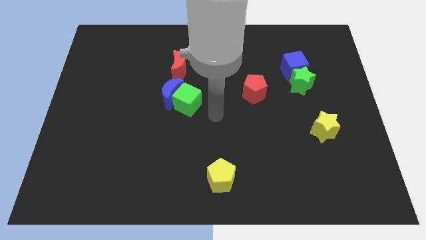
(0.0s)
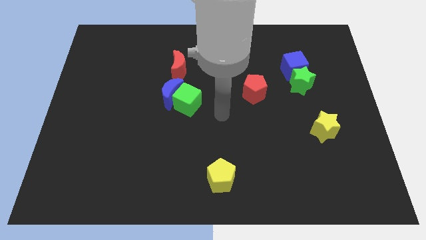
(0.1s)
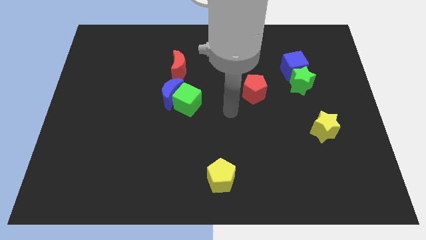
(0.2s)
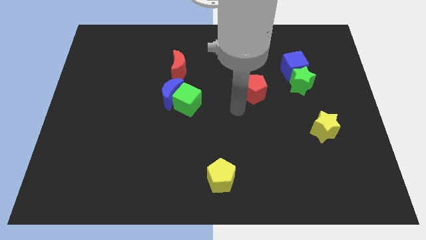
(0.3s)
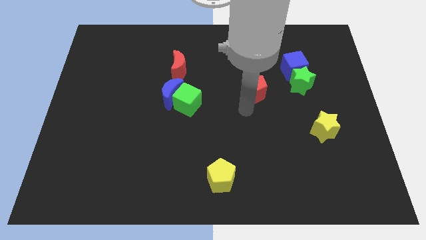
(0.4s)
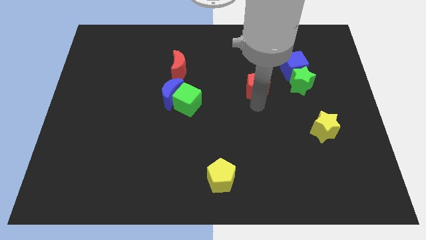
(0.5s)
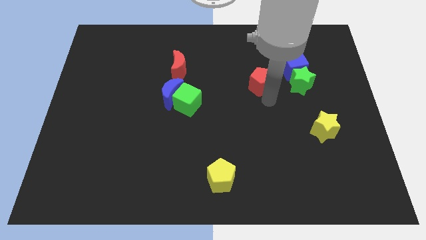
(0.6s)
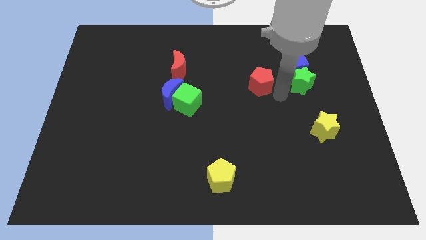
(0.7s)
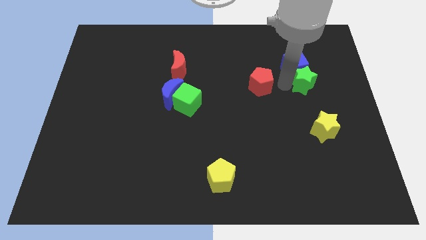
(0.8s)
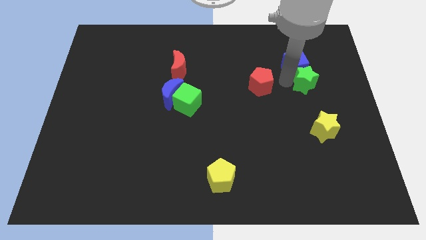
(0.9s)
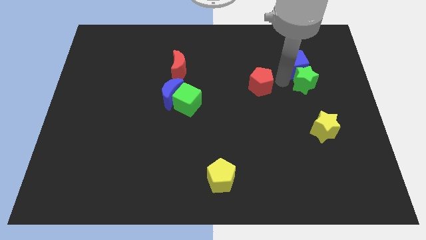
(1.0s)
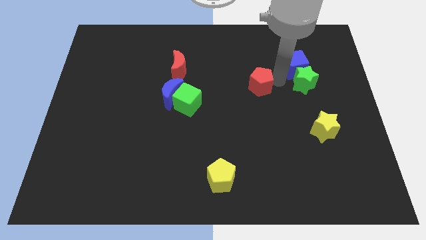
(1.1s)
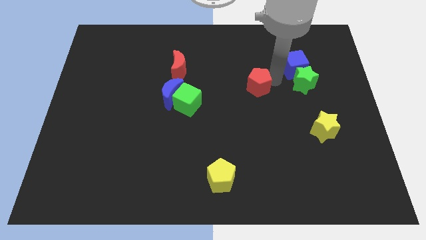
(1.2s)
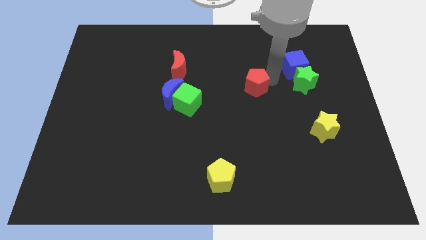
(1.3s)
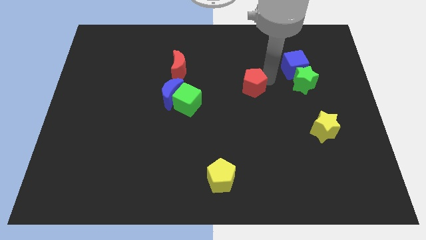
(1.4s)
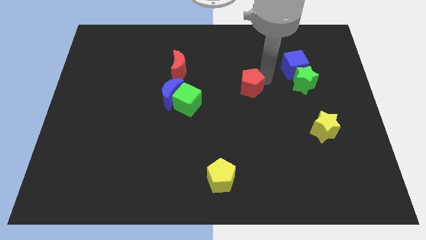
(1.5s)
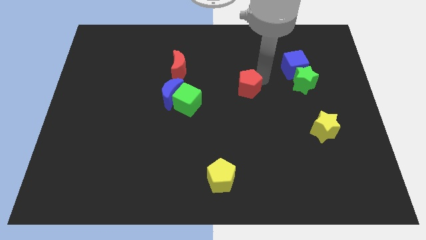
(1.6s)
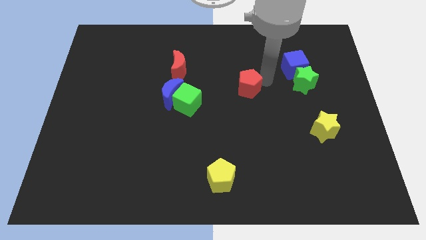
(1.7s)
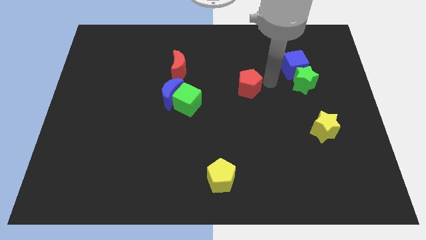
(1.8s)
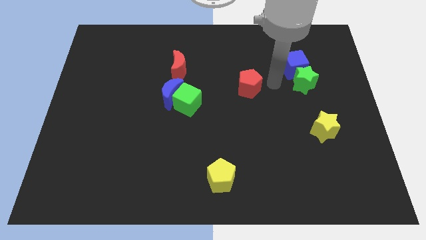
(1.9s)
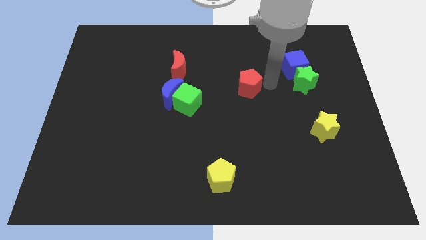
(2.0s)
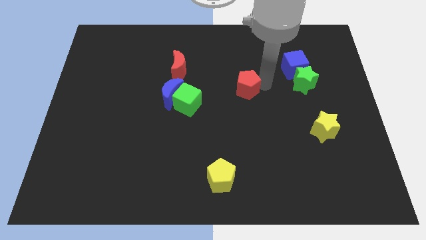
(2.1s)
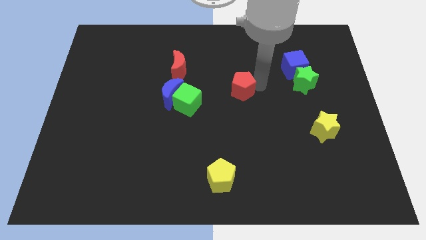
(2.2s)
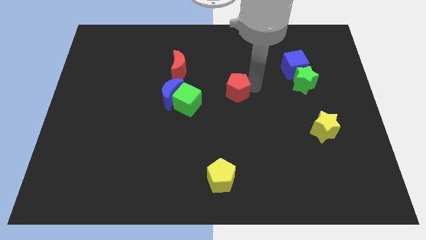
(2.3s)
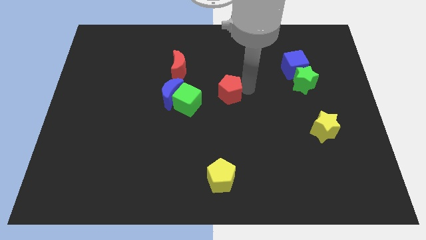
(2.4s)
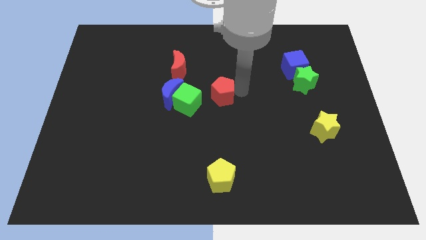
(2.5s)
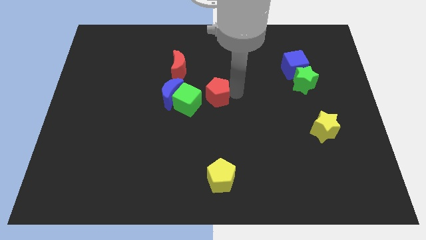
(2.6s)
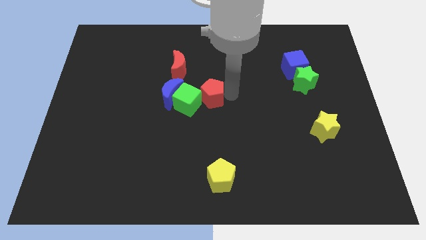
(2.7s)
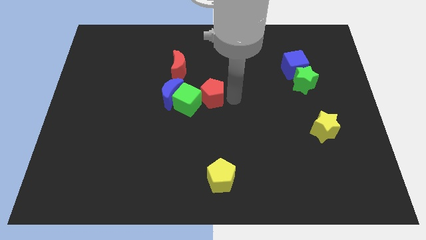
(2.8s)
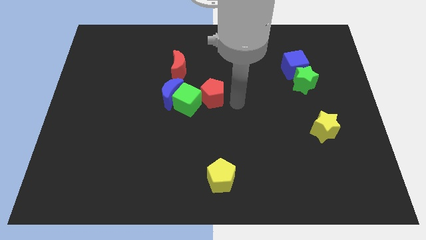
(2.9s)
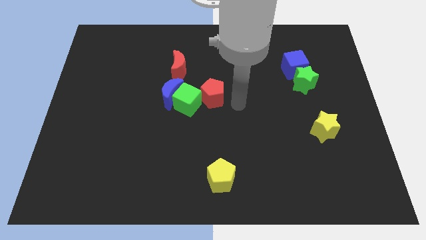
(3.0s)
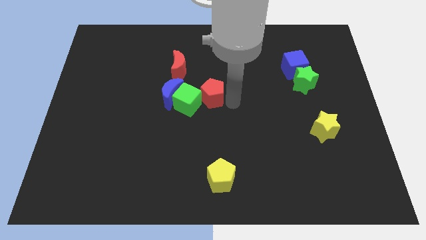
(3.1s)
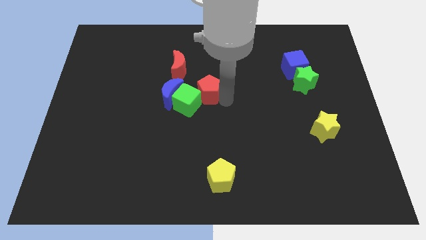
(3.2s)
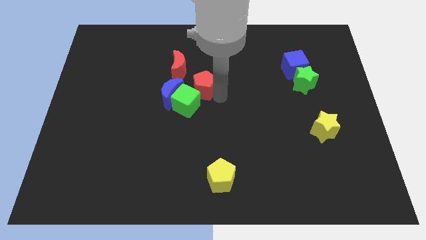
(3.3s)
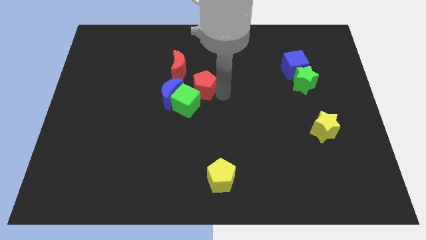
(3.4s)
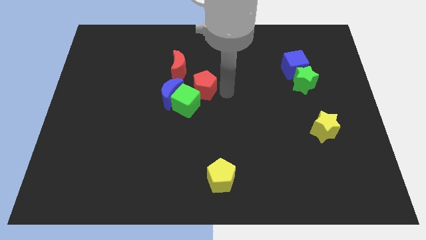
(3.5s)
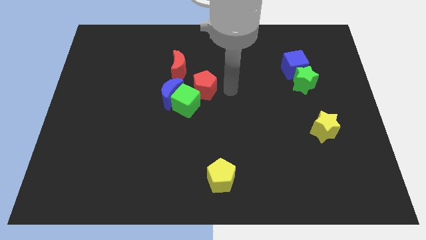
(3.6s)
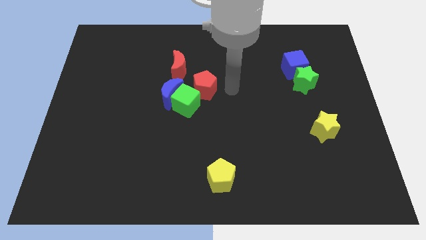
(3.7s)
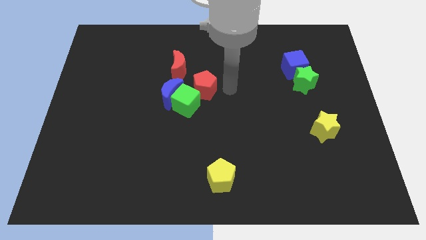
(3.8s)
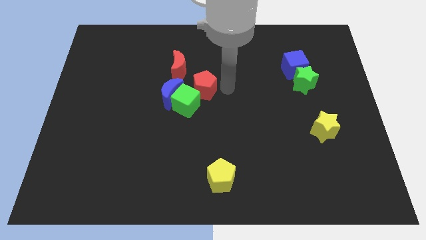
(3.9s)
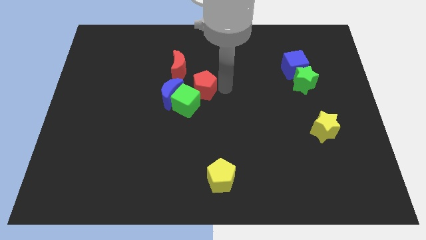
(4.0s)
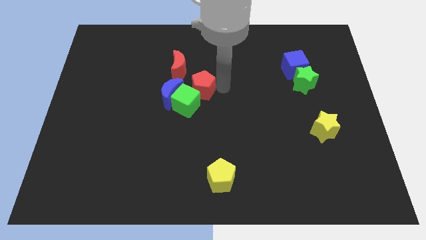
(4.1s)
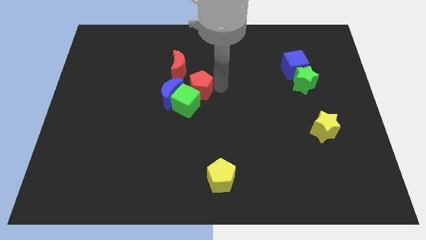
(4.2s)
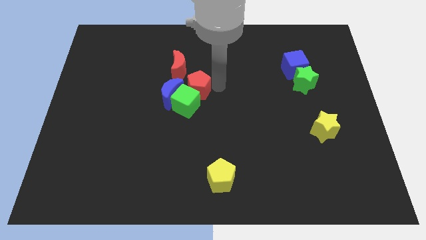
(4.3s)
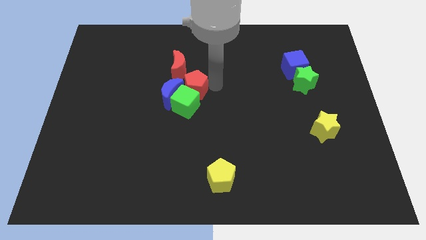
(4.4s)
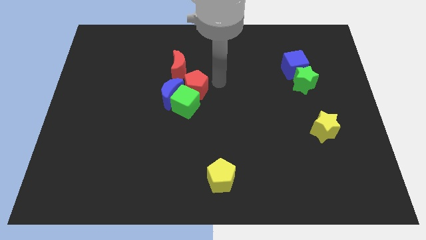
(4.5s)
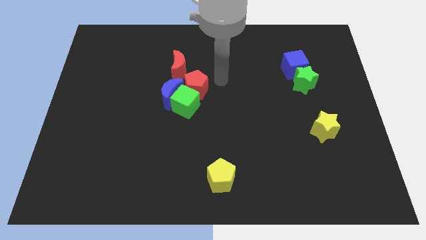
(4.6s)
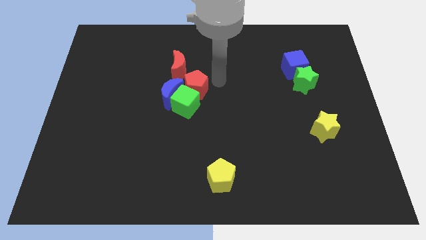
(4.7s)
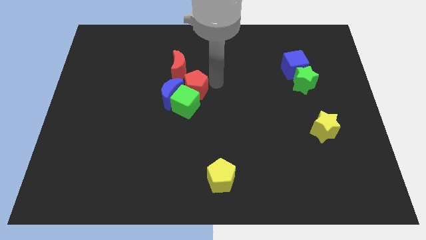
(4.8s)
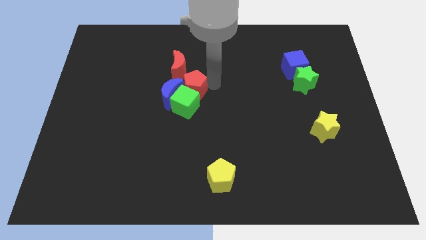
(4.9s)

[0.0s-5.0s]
slide the red pentagon towards the blue moon

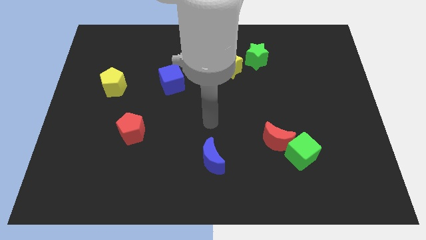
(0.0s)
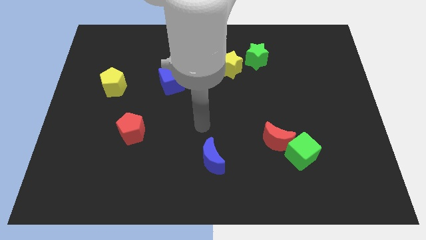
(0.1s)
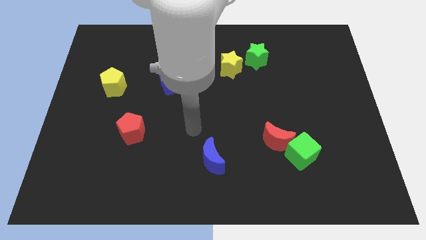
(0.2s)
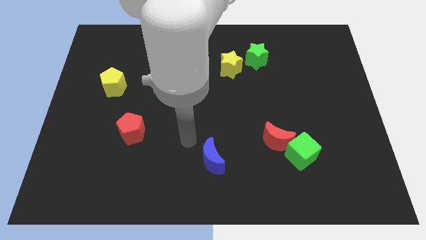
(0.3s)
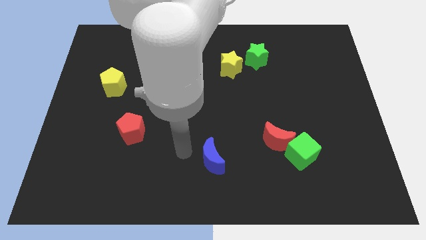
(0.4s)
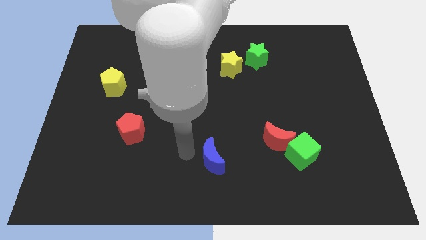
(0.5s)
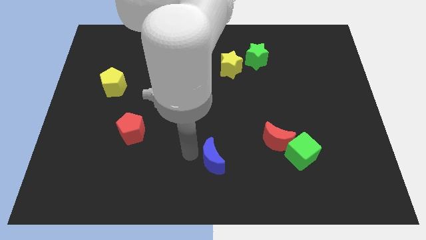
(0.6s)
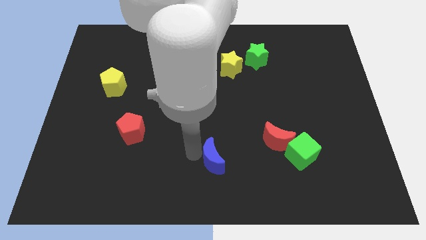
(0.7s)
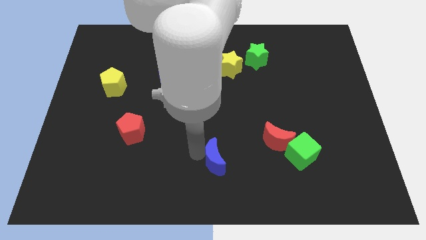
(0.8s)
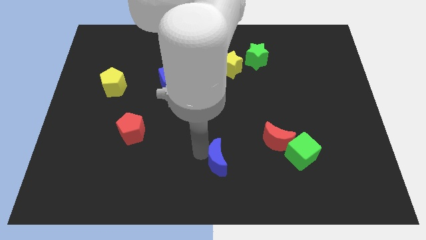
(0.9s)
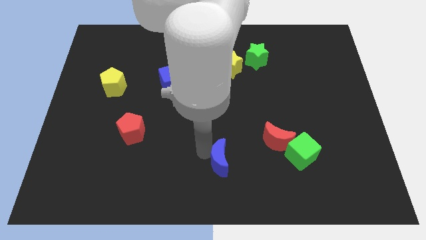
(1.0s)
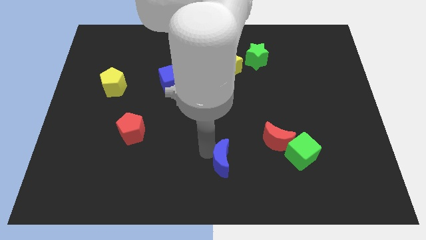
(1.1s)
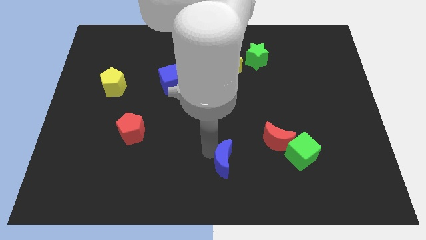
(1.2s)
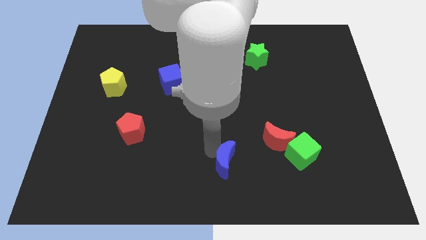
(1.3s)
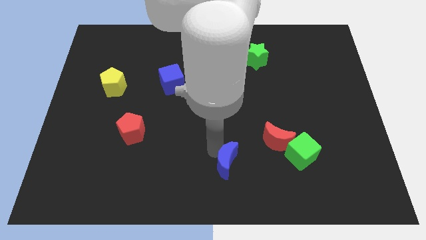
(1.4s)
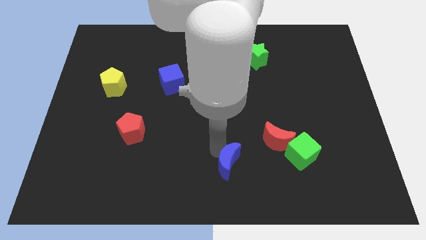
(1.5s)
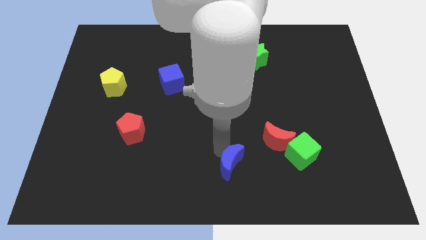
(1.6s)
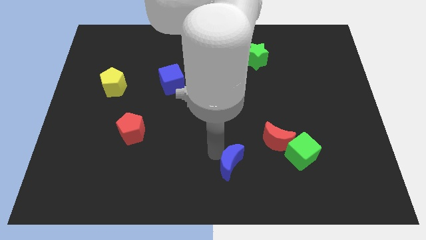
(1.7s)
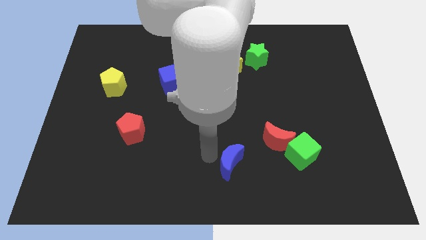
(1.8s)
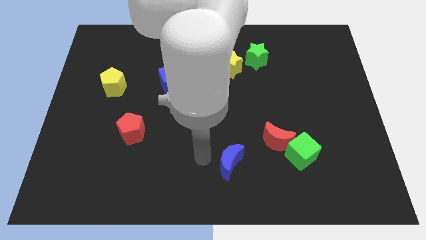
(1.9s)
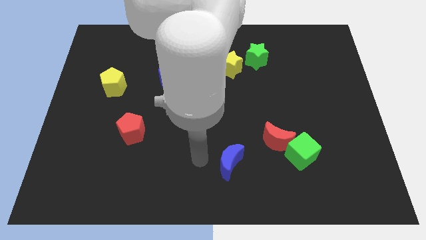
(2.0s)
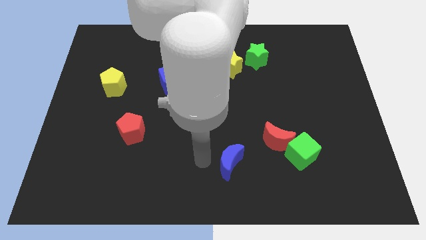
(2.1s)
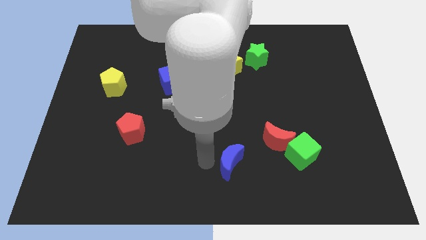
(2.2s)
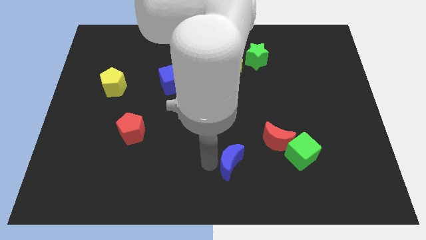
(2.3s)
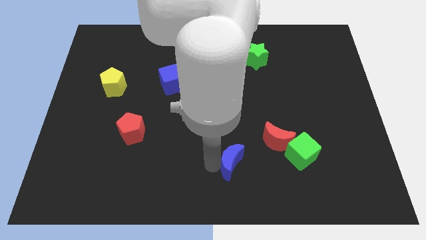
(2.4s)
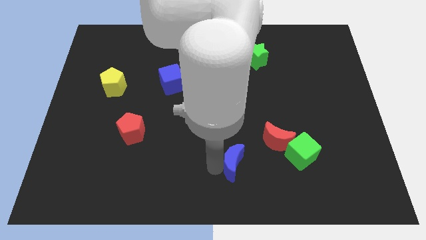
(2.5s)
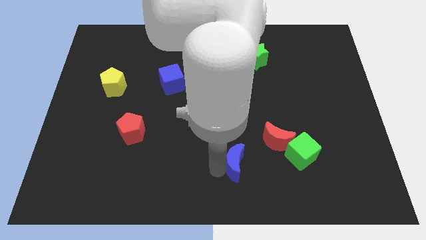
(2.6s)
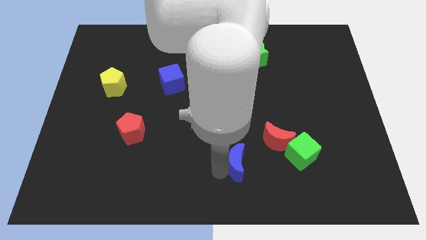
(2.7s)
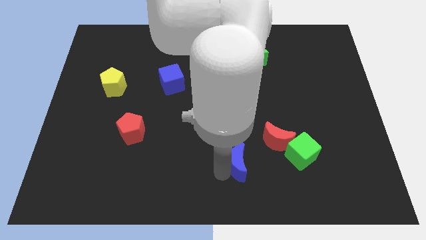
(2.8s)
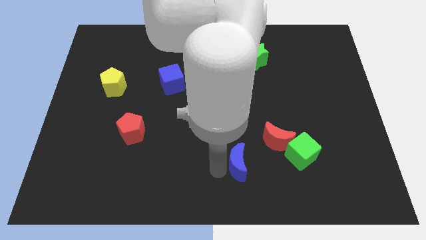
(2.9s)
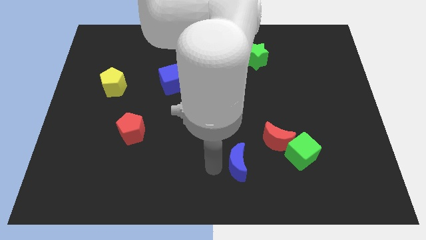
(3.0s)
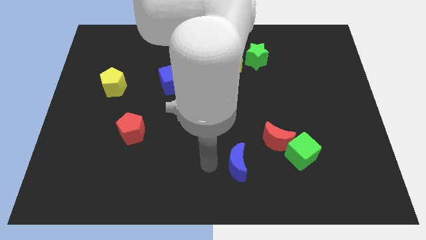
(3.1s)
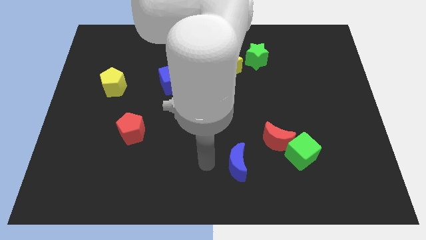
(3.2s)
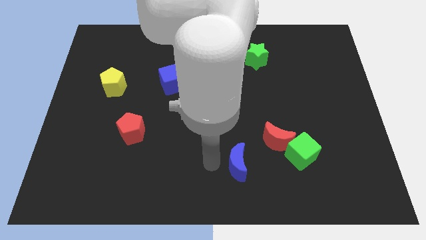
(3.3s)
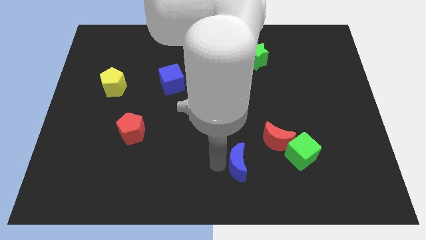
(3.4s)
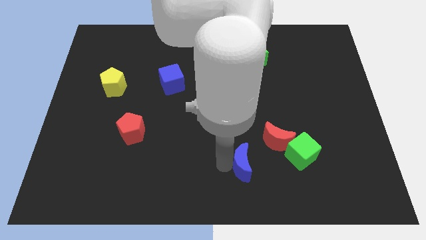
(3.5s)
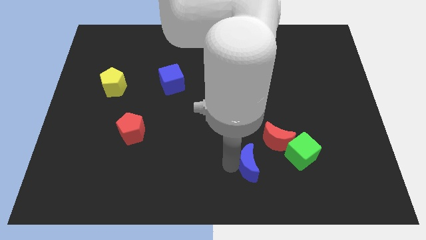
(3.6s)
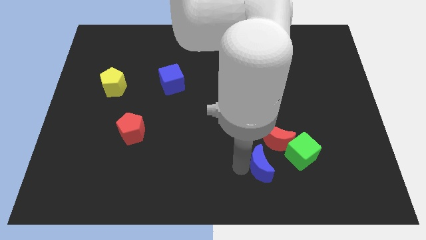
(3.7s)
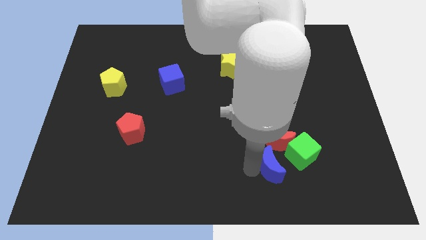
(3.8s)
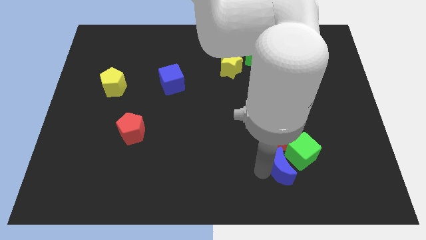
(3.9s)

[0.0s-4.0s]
push the blue moon next to the green cube
